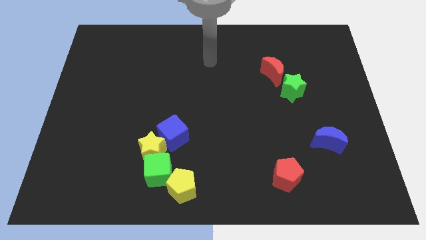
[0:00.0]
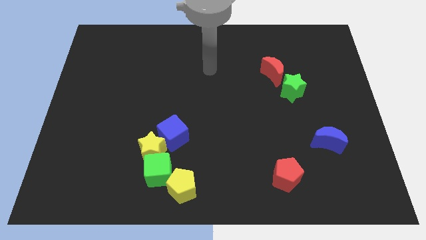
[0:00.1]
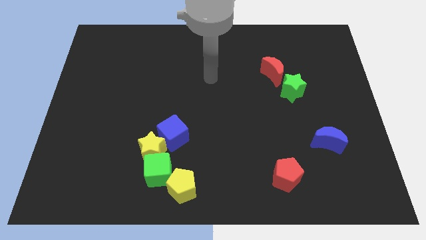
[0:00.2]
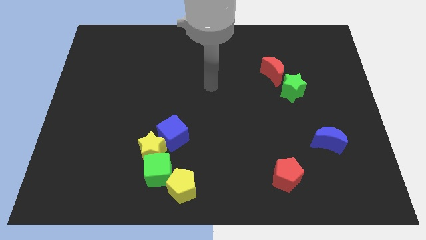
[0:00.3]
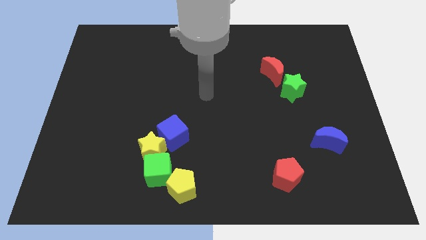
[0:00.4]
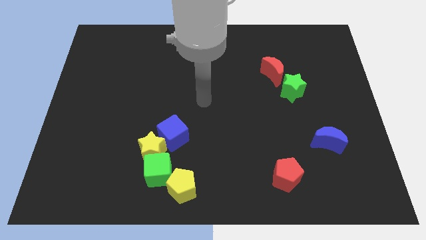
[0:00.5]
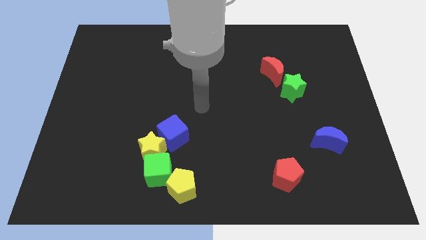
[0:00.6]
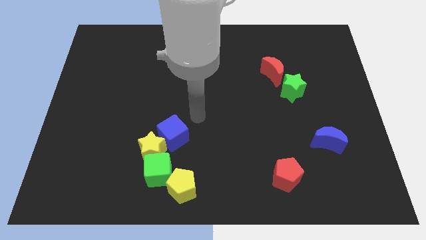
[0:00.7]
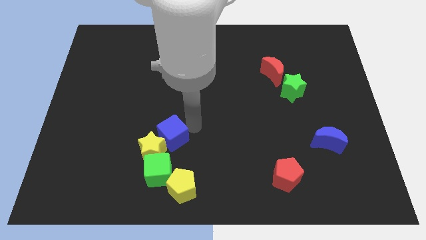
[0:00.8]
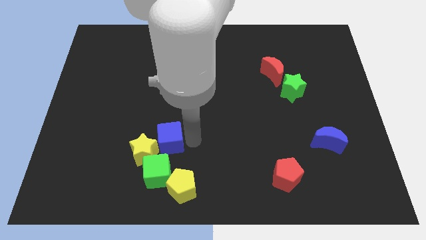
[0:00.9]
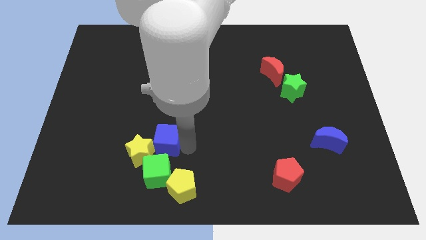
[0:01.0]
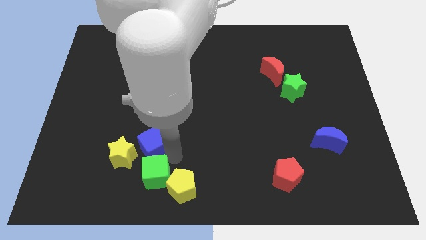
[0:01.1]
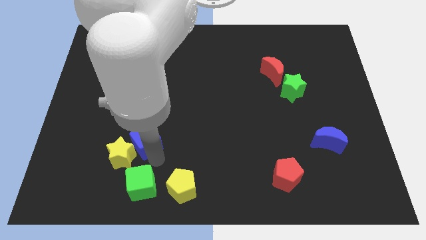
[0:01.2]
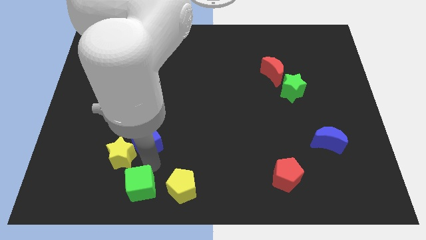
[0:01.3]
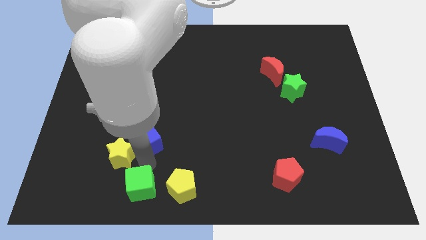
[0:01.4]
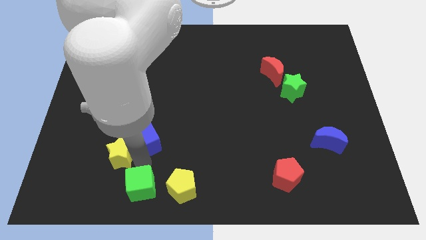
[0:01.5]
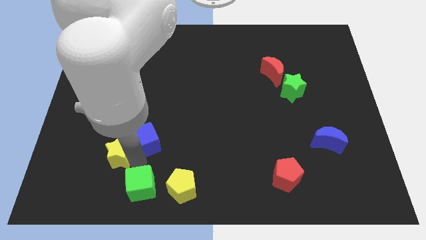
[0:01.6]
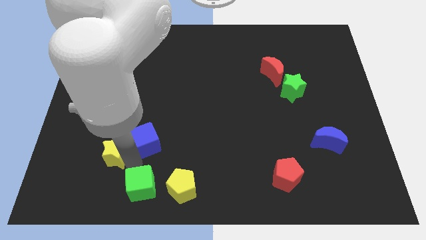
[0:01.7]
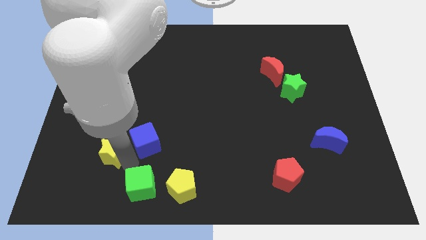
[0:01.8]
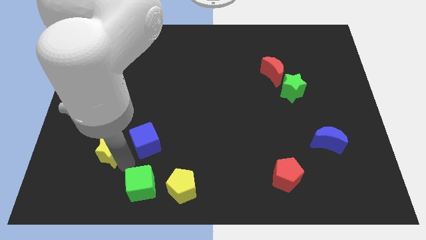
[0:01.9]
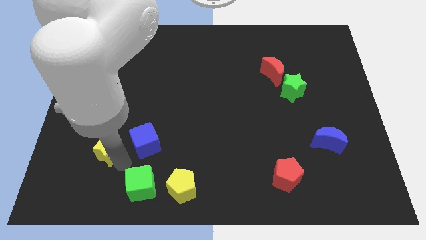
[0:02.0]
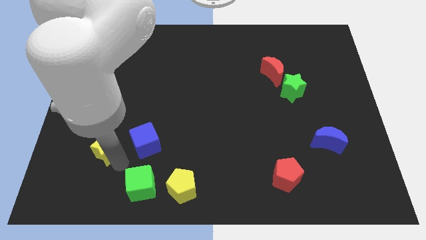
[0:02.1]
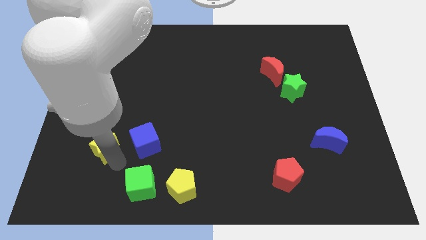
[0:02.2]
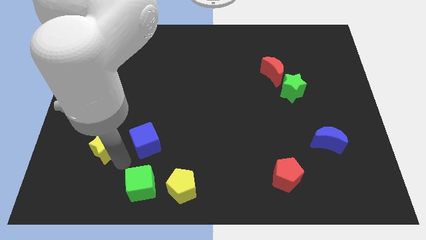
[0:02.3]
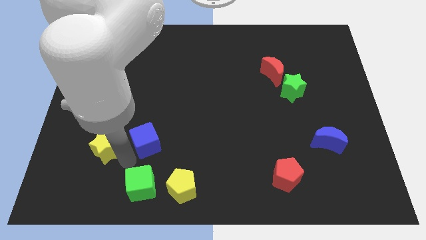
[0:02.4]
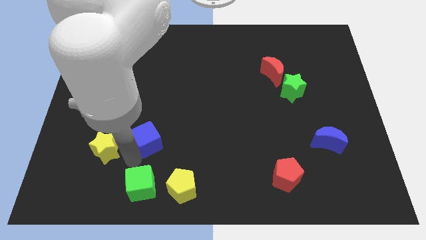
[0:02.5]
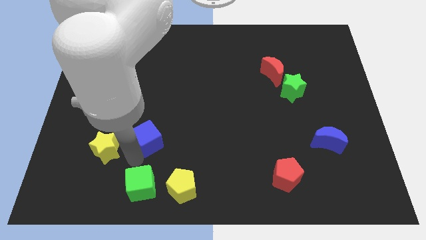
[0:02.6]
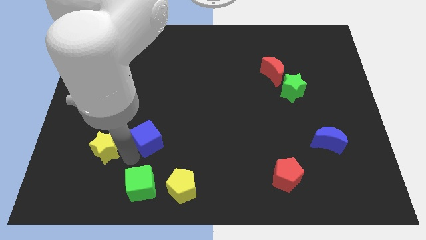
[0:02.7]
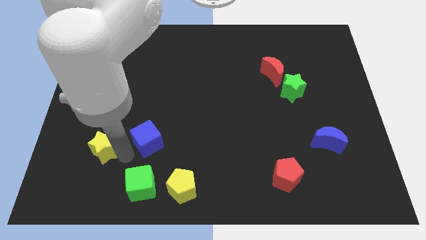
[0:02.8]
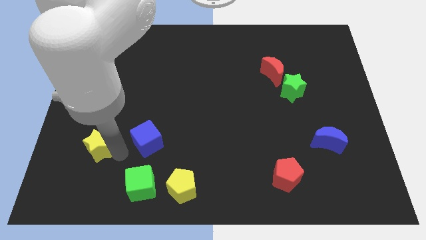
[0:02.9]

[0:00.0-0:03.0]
pull the yellow star apart from the green cube and blue cube

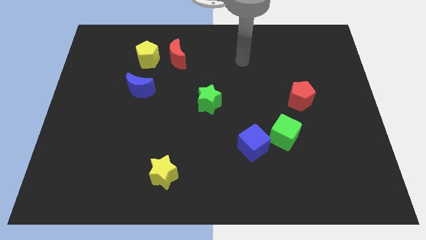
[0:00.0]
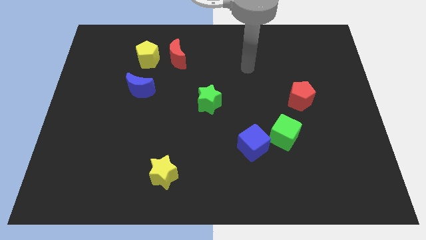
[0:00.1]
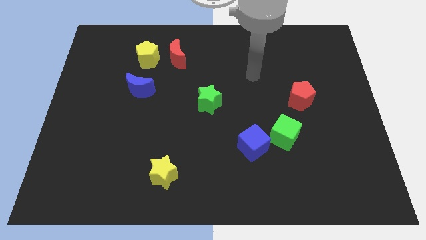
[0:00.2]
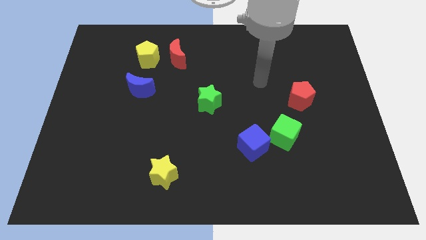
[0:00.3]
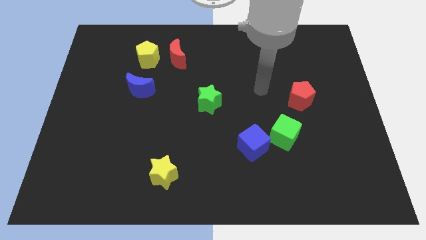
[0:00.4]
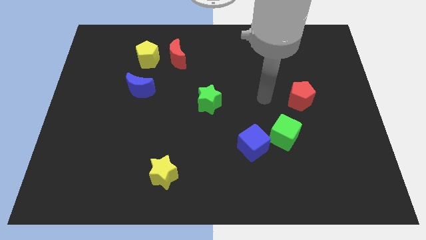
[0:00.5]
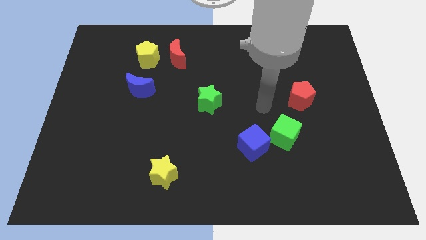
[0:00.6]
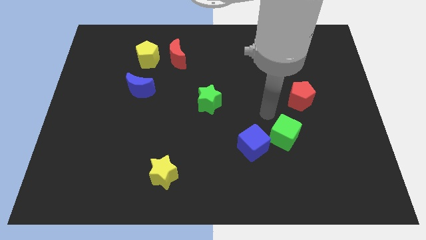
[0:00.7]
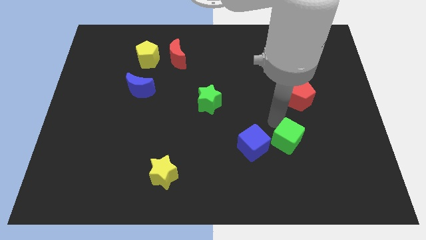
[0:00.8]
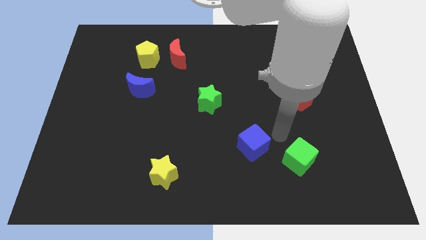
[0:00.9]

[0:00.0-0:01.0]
pull the blue cube apart from the green cube

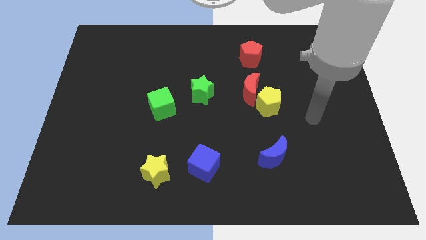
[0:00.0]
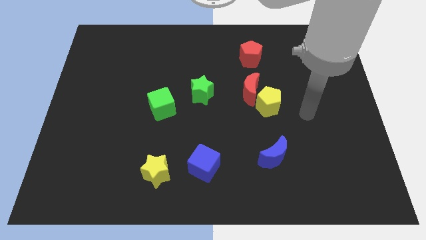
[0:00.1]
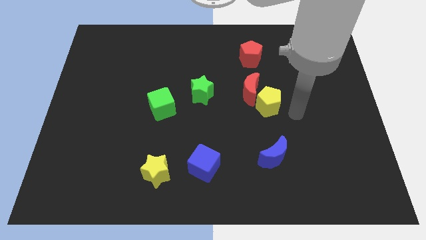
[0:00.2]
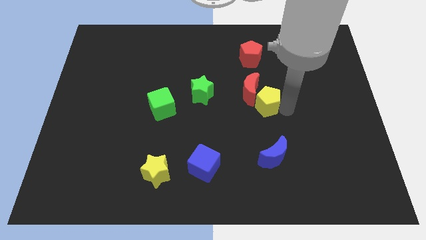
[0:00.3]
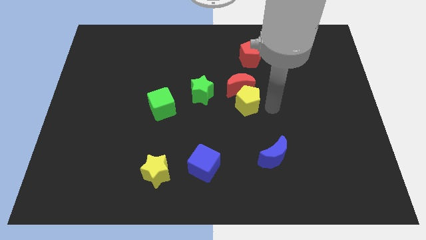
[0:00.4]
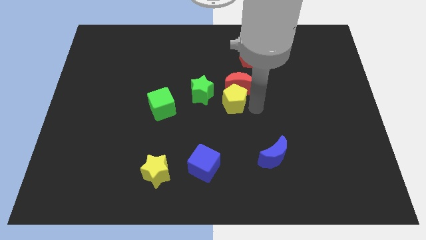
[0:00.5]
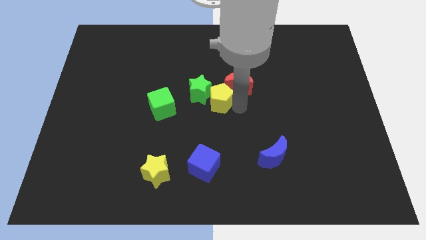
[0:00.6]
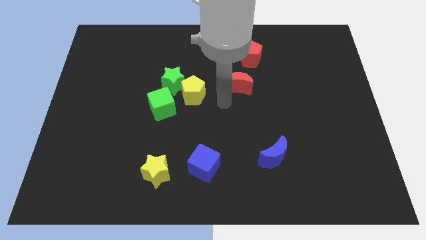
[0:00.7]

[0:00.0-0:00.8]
pull the red moon apart from the yellow pentagon

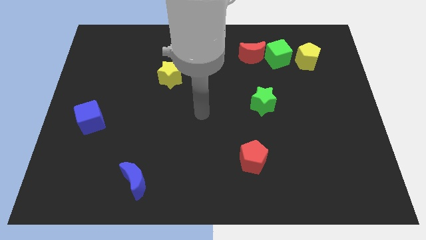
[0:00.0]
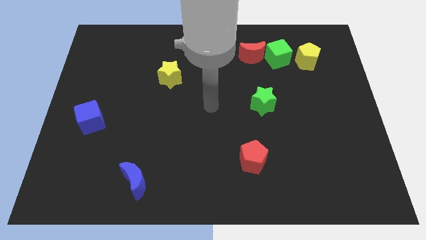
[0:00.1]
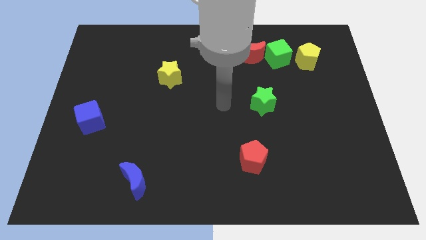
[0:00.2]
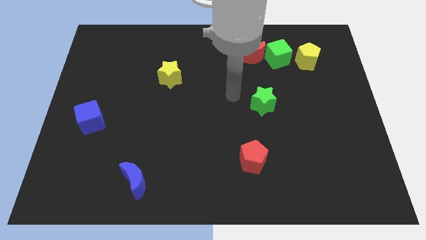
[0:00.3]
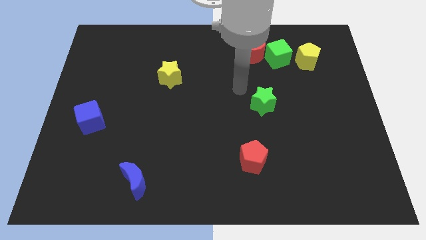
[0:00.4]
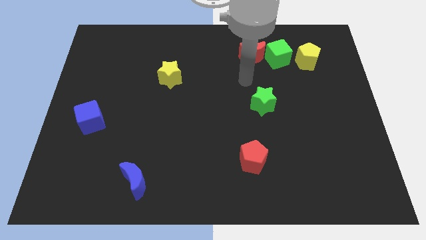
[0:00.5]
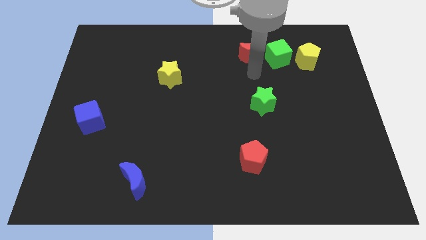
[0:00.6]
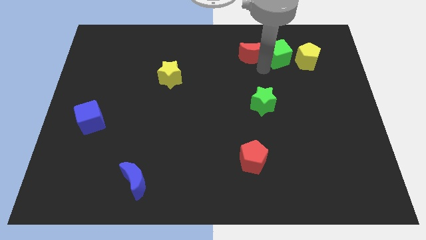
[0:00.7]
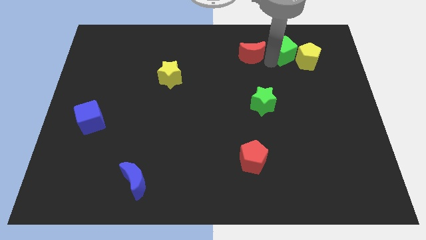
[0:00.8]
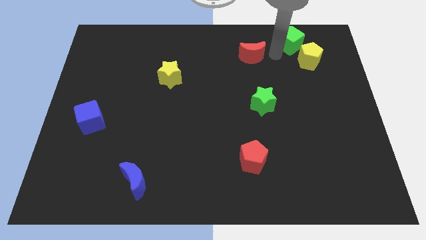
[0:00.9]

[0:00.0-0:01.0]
separate the red moon from the green cube

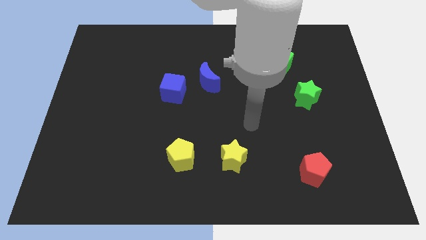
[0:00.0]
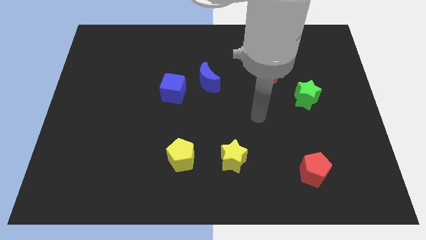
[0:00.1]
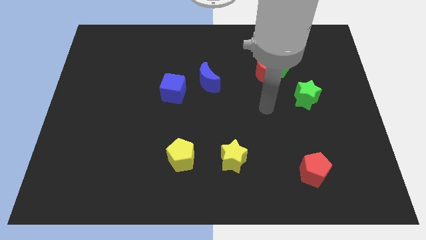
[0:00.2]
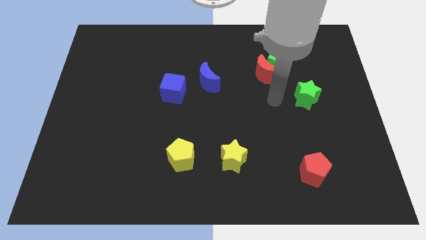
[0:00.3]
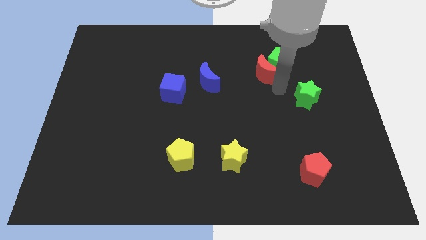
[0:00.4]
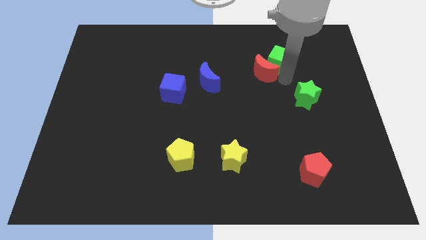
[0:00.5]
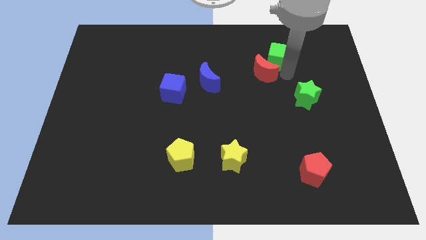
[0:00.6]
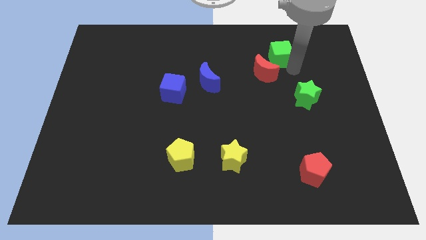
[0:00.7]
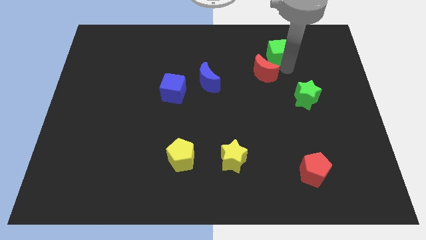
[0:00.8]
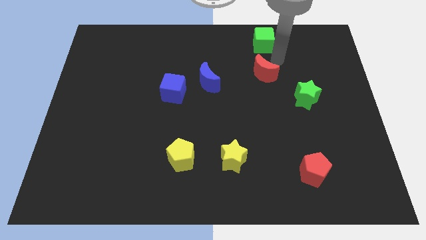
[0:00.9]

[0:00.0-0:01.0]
pull the red moon apart from the green cube

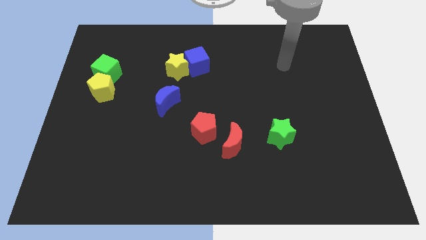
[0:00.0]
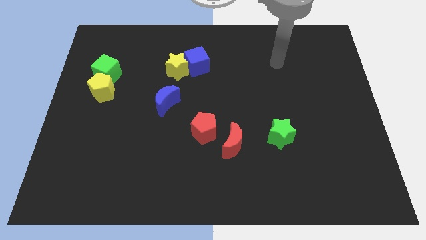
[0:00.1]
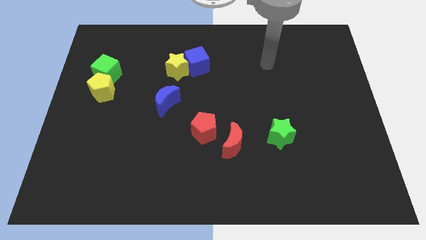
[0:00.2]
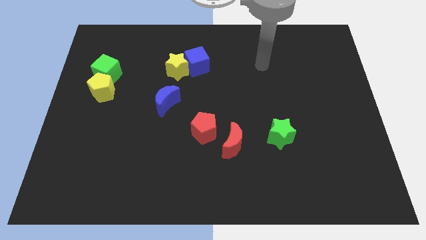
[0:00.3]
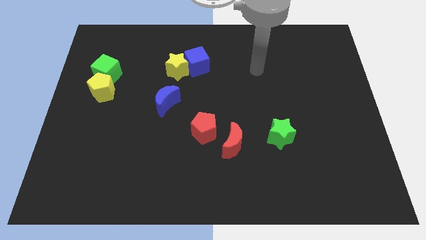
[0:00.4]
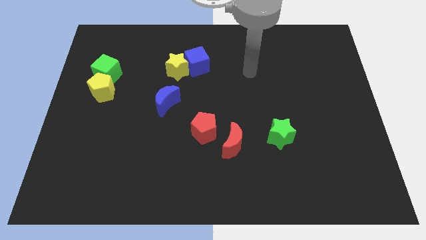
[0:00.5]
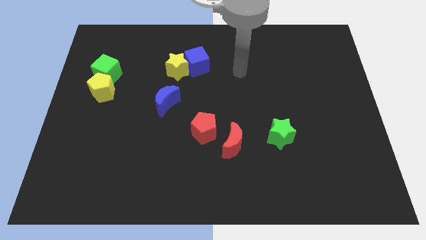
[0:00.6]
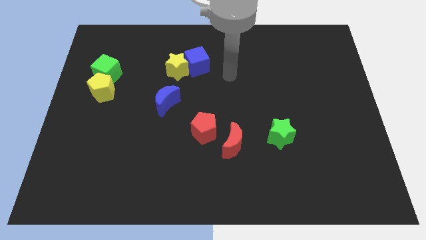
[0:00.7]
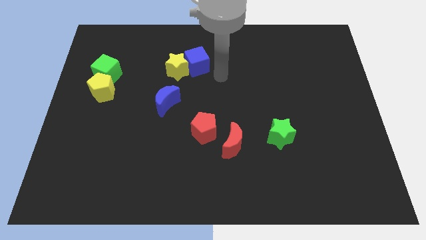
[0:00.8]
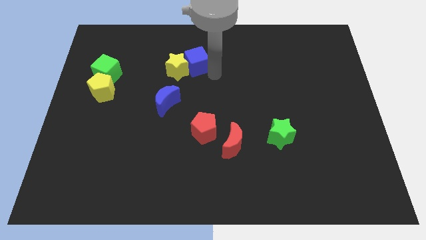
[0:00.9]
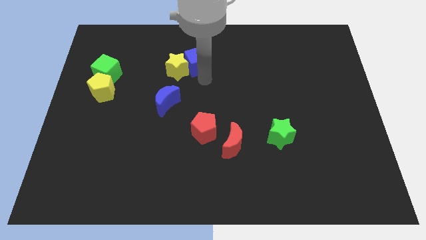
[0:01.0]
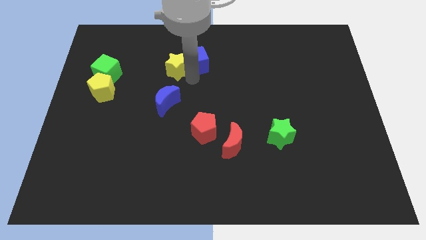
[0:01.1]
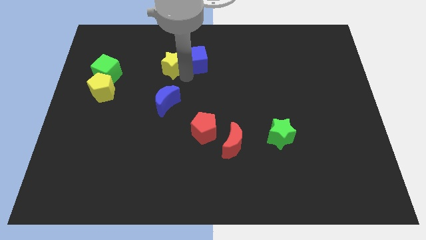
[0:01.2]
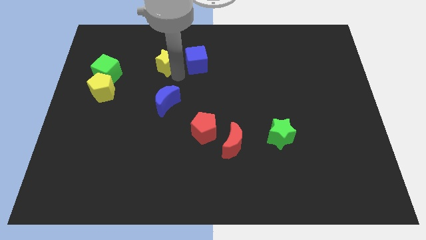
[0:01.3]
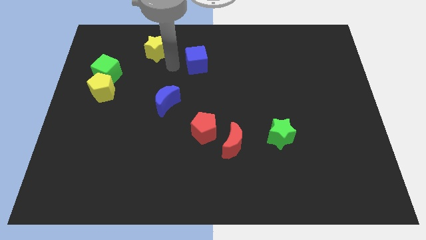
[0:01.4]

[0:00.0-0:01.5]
move the blue cube away from the yellow star

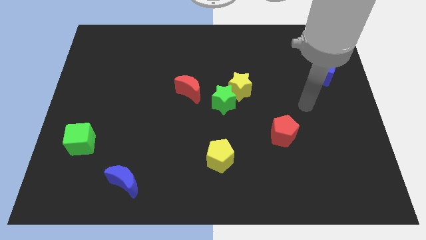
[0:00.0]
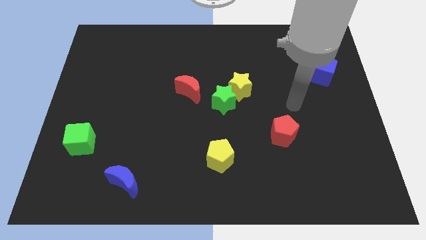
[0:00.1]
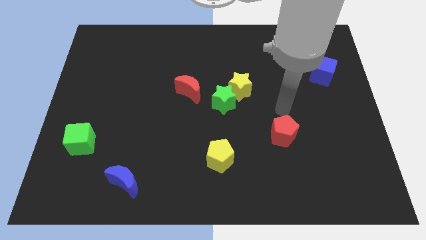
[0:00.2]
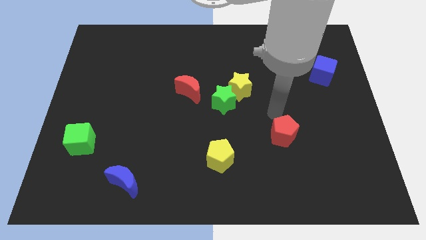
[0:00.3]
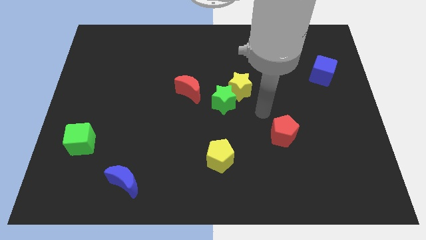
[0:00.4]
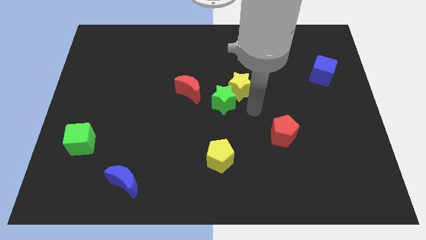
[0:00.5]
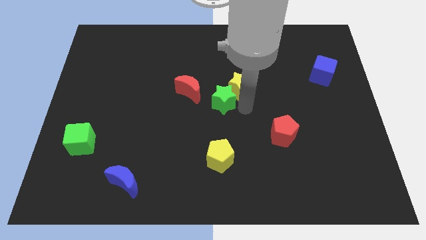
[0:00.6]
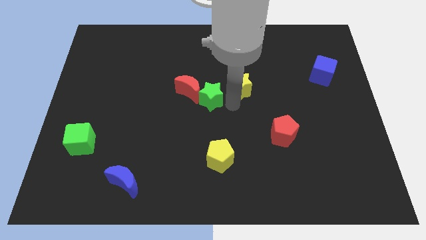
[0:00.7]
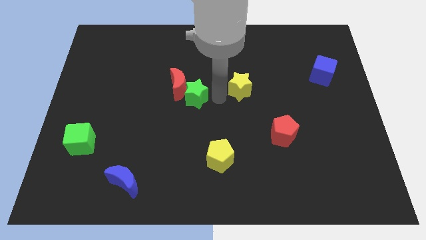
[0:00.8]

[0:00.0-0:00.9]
separate the yellow star from the green star
